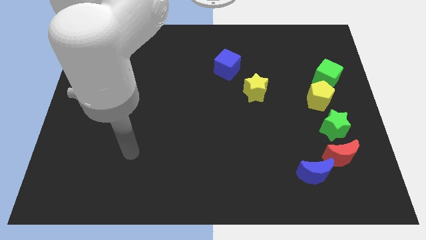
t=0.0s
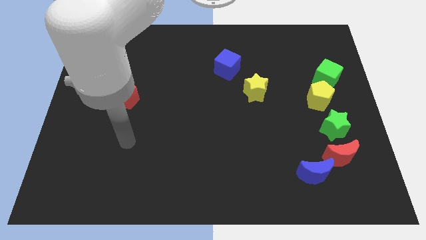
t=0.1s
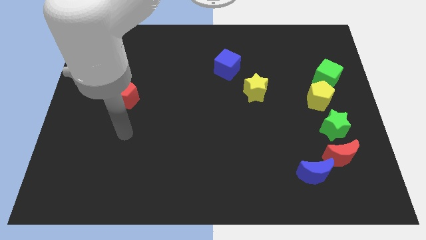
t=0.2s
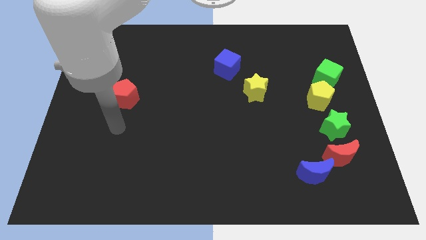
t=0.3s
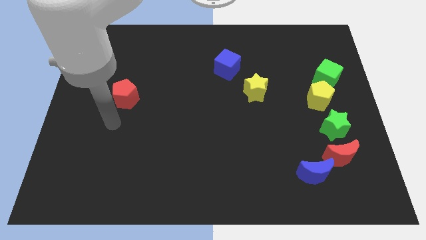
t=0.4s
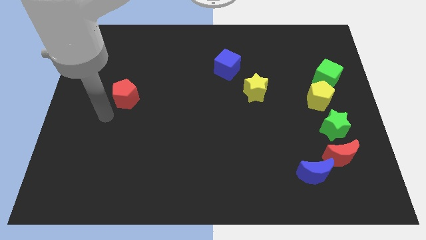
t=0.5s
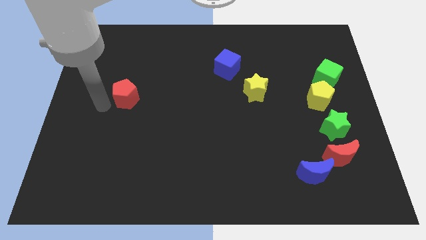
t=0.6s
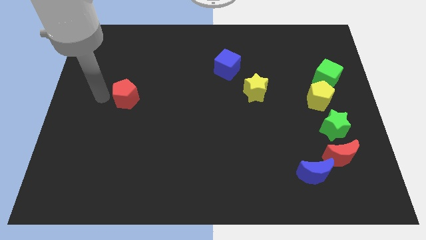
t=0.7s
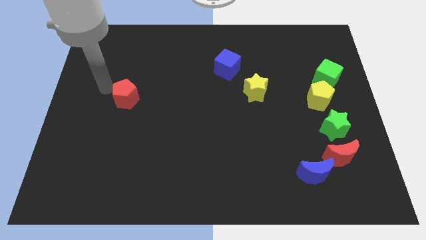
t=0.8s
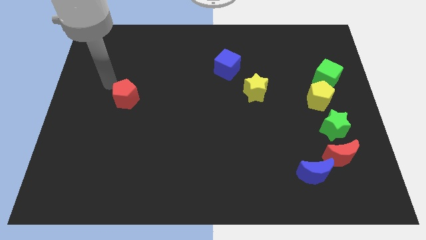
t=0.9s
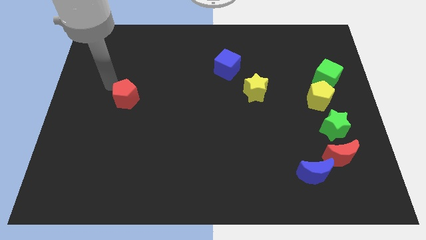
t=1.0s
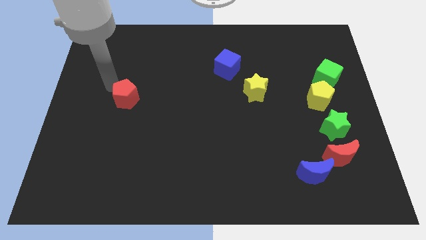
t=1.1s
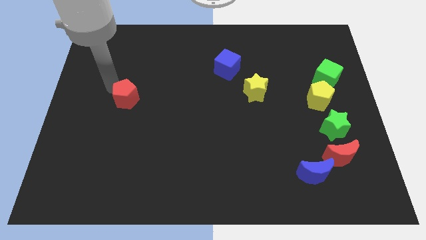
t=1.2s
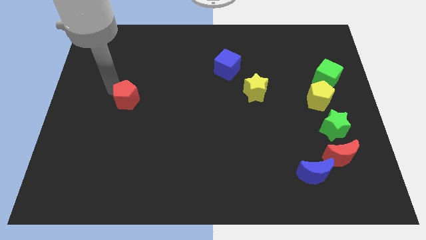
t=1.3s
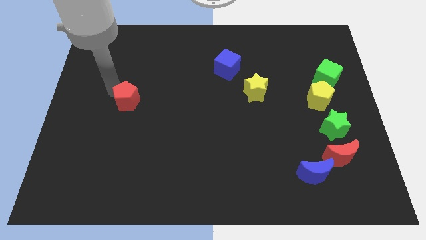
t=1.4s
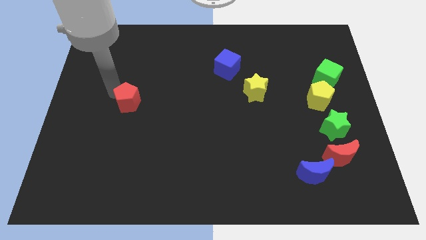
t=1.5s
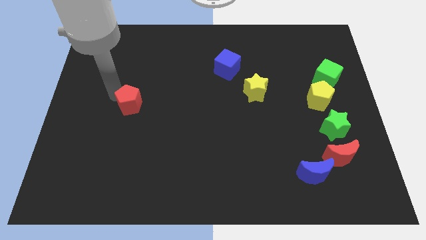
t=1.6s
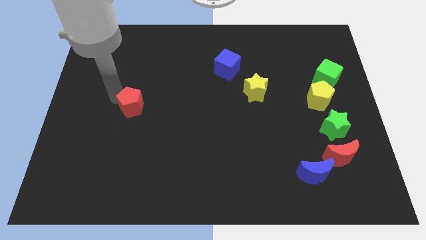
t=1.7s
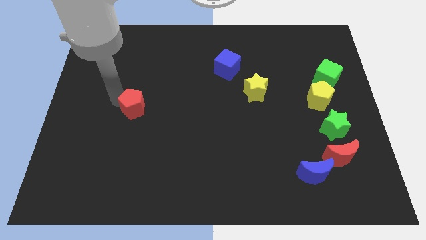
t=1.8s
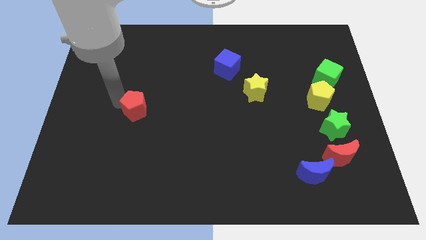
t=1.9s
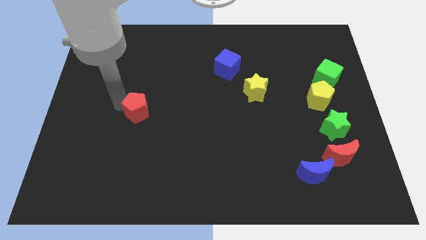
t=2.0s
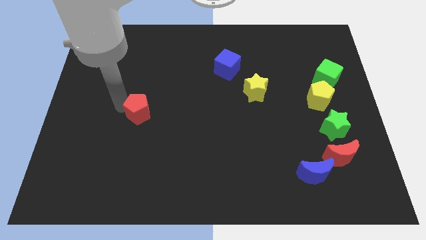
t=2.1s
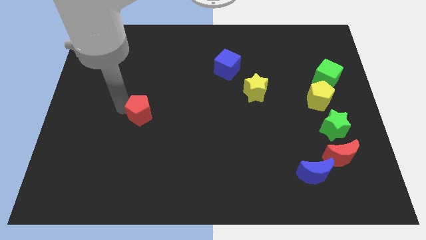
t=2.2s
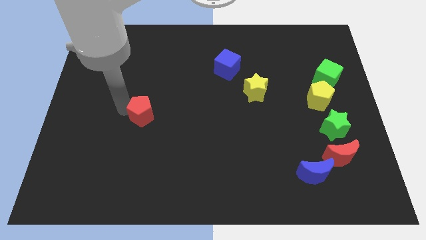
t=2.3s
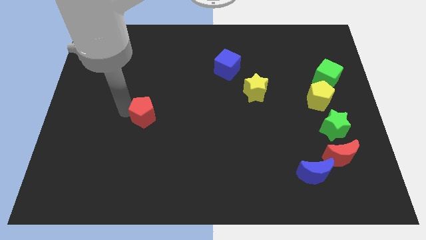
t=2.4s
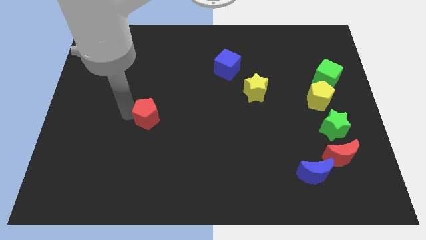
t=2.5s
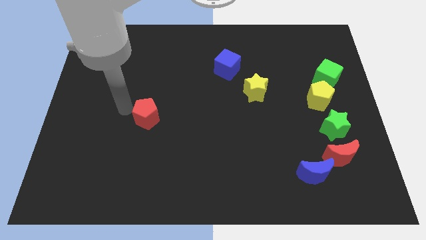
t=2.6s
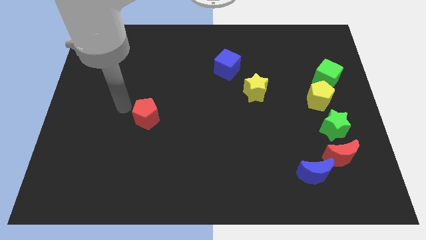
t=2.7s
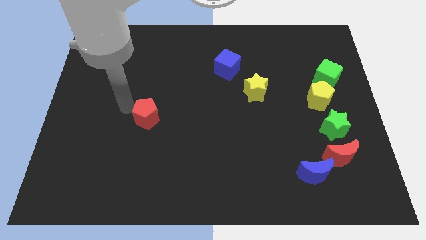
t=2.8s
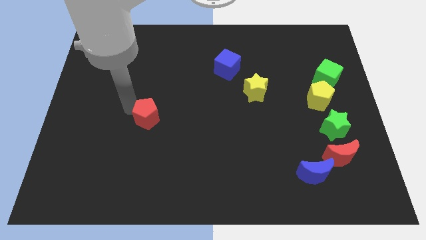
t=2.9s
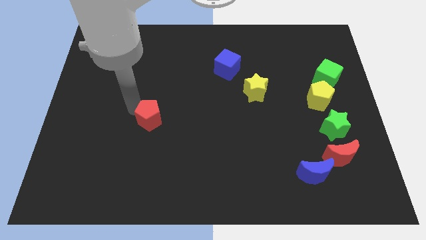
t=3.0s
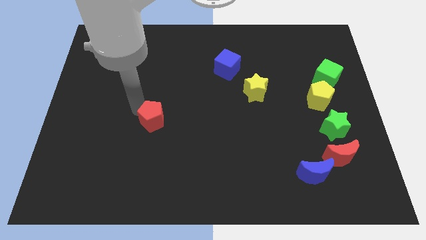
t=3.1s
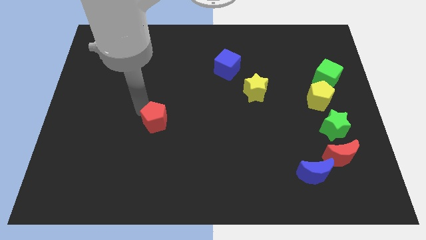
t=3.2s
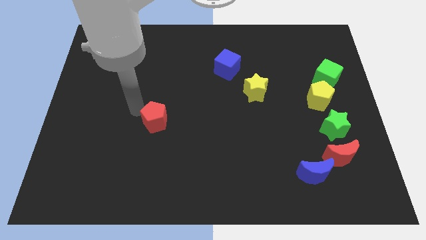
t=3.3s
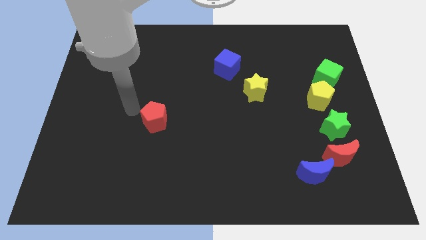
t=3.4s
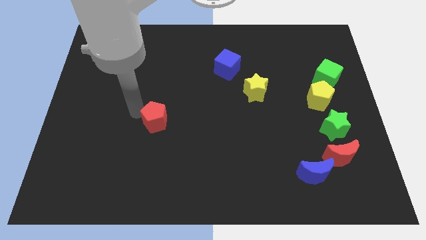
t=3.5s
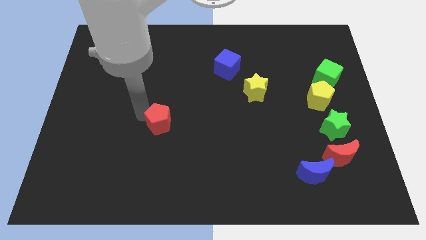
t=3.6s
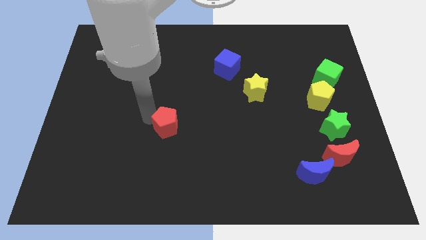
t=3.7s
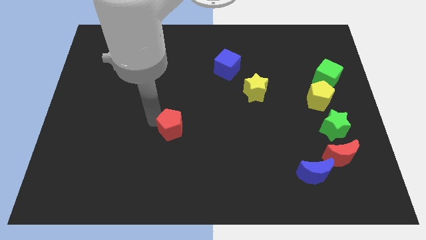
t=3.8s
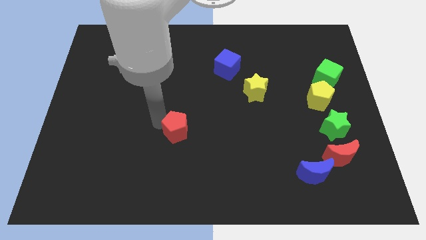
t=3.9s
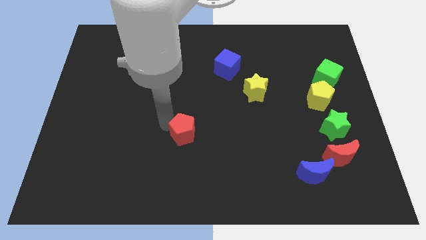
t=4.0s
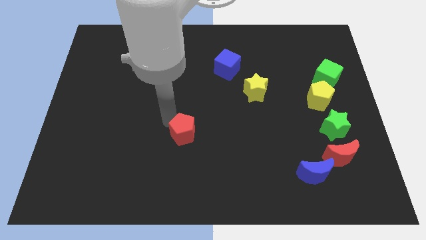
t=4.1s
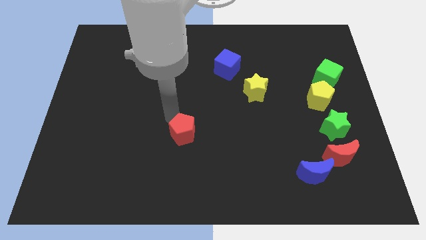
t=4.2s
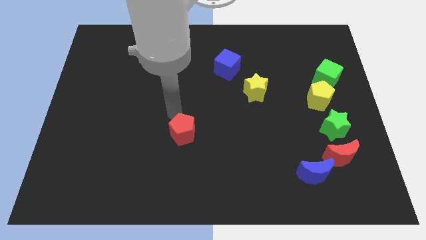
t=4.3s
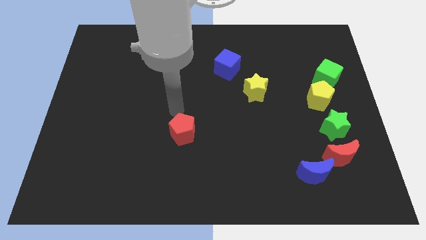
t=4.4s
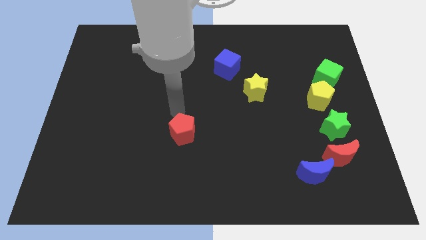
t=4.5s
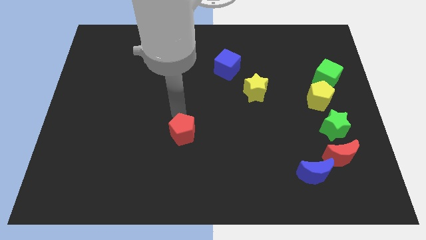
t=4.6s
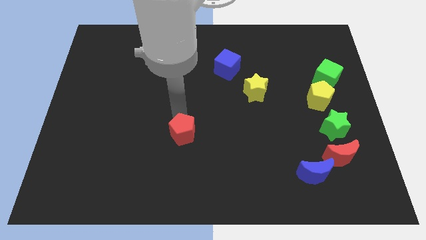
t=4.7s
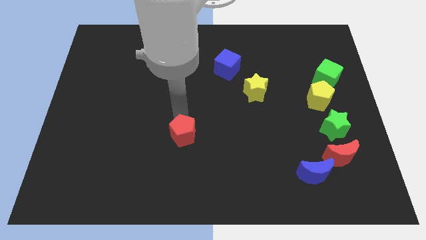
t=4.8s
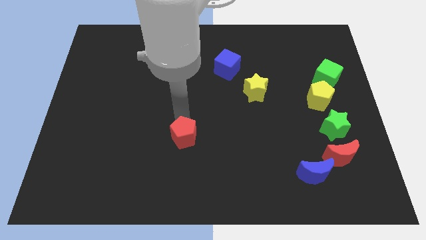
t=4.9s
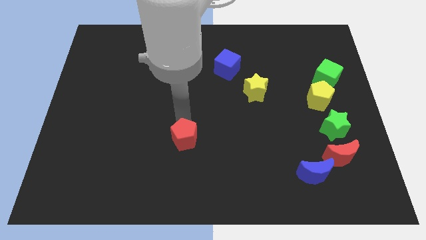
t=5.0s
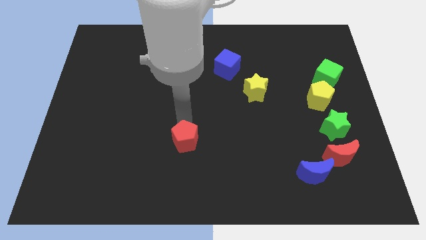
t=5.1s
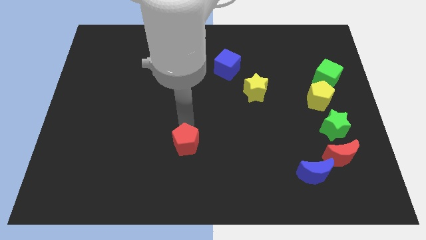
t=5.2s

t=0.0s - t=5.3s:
move the red pentagon down and to the right

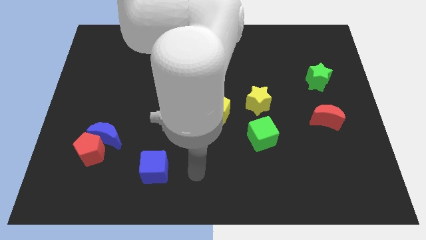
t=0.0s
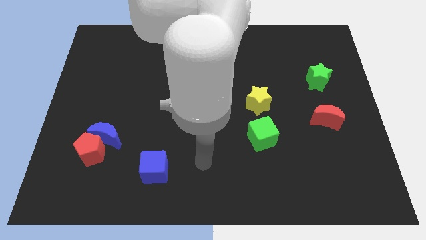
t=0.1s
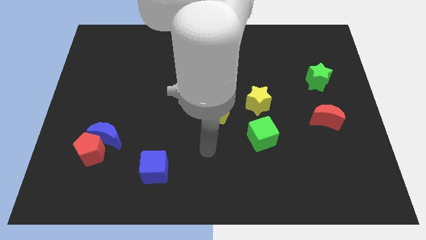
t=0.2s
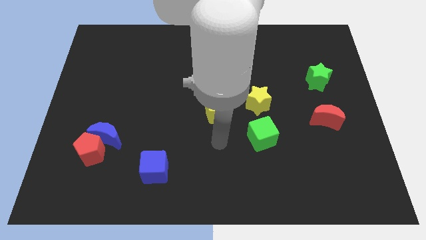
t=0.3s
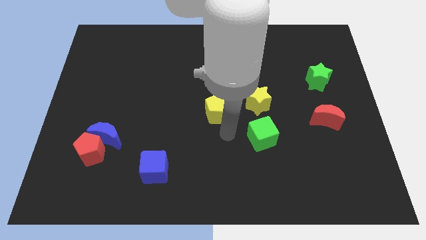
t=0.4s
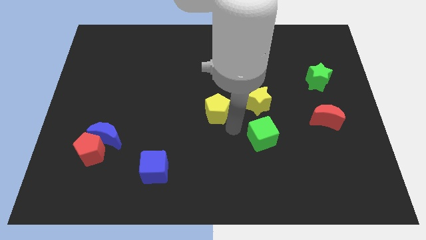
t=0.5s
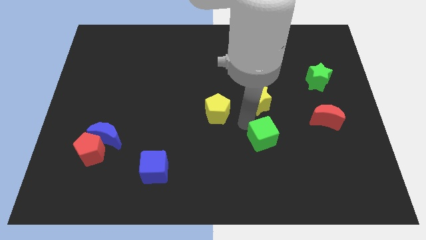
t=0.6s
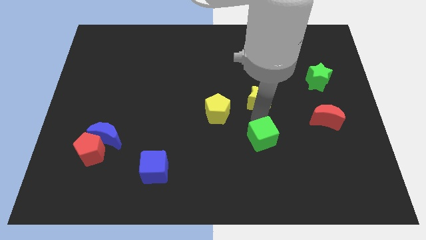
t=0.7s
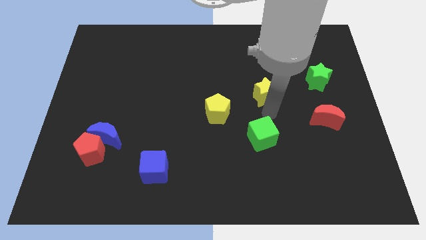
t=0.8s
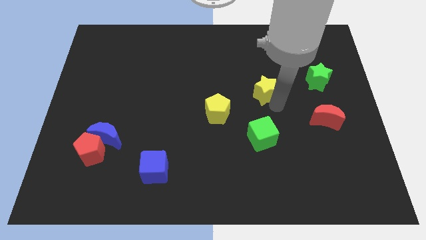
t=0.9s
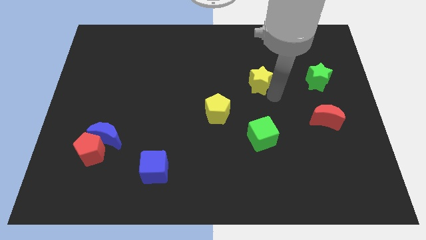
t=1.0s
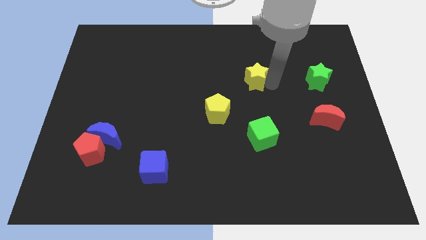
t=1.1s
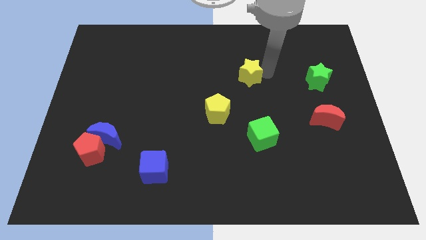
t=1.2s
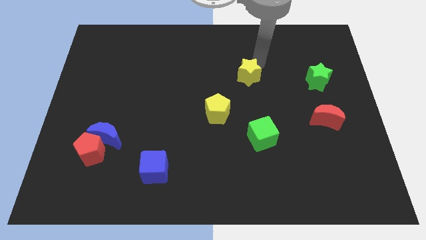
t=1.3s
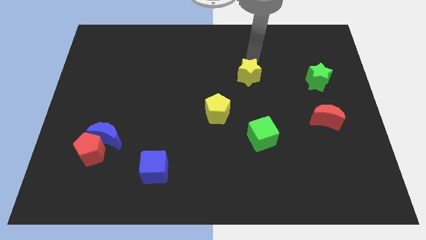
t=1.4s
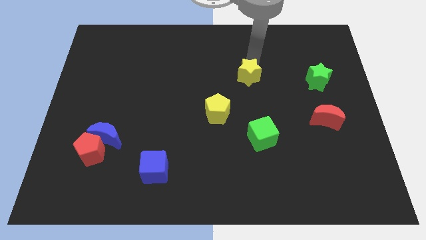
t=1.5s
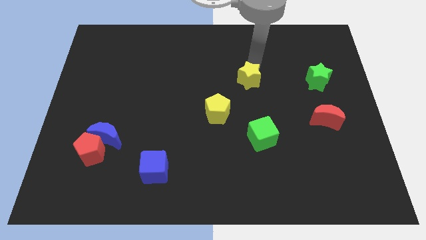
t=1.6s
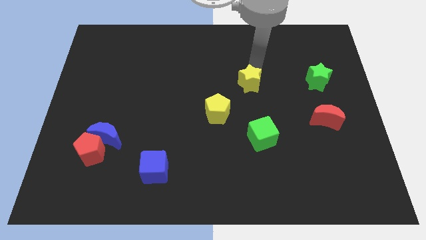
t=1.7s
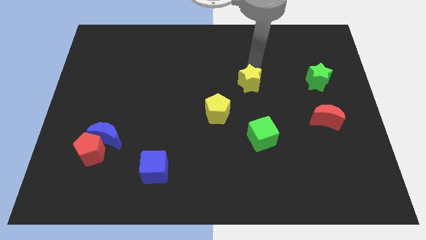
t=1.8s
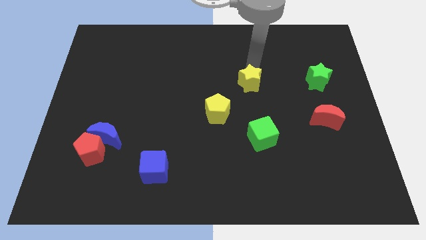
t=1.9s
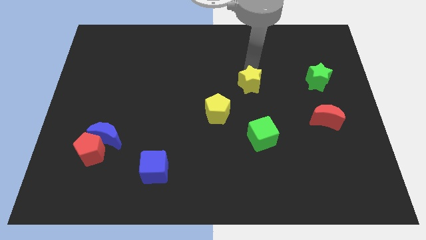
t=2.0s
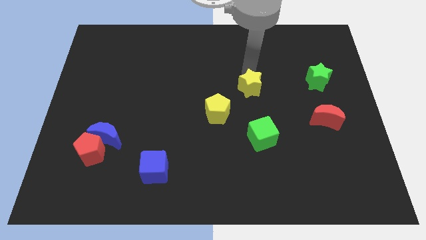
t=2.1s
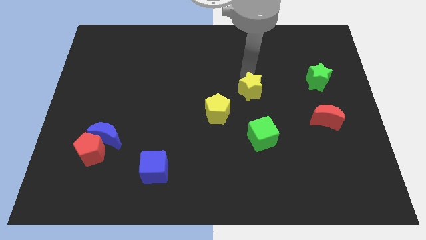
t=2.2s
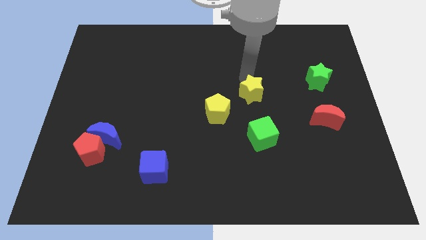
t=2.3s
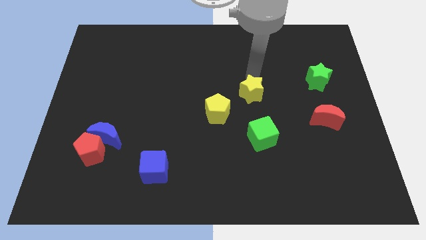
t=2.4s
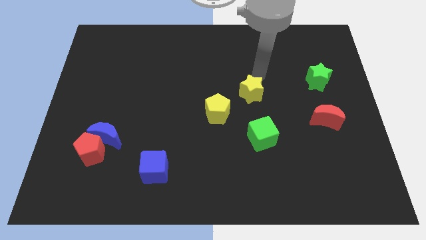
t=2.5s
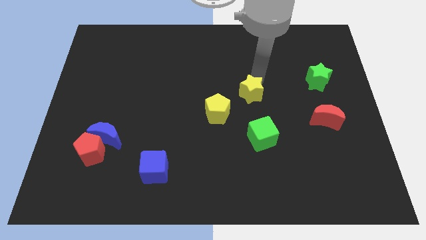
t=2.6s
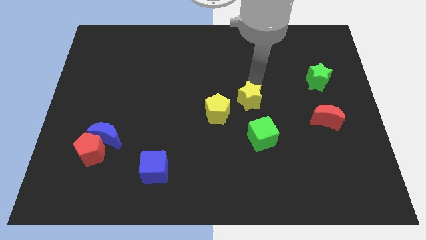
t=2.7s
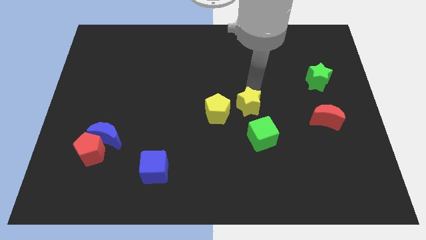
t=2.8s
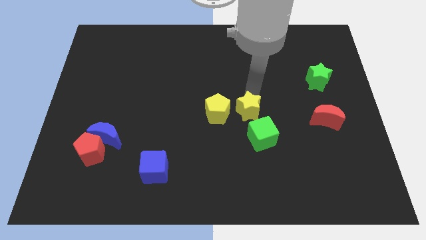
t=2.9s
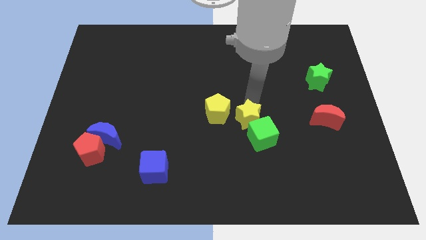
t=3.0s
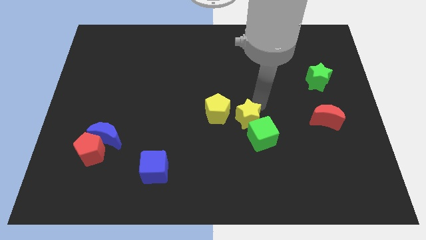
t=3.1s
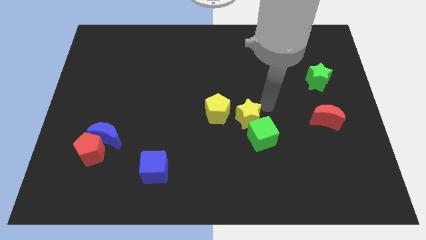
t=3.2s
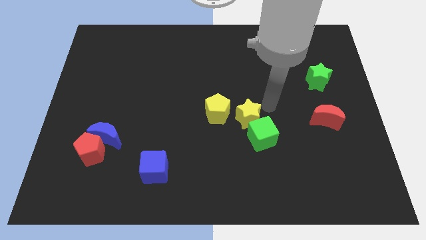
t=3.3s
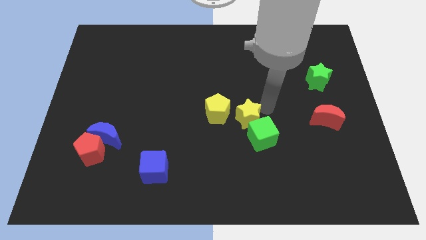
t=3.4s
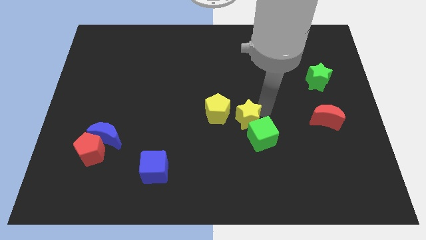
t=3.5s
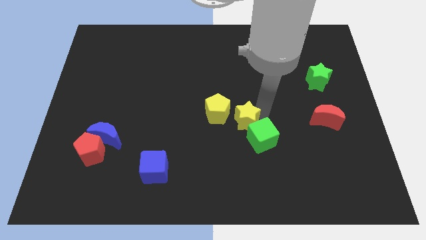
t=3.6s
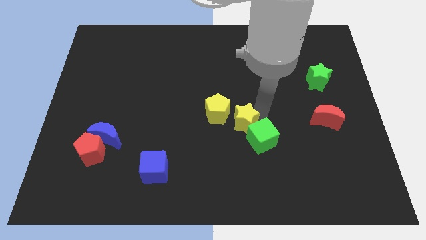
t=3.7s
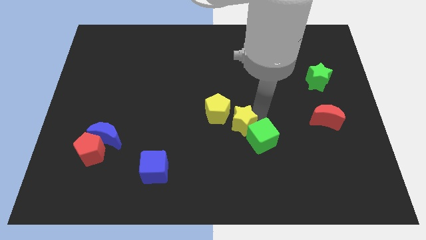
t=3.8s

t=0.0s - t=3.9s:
slide the yellow star somewhat downwards and to the left diagonally
